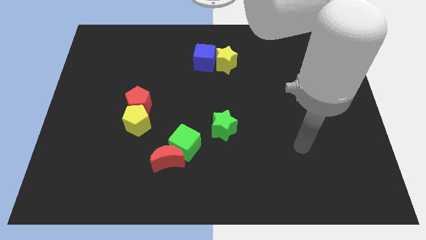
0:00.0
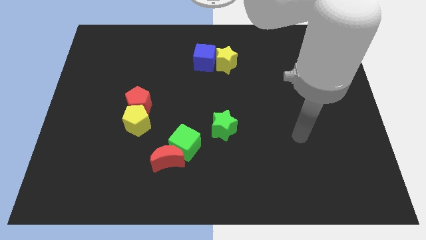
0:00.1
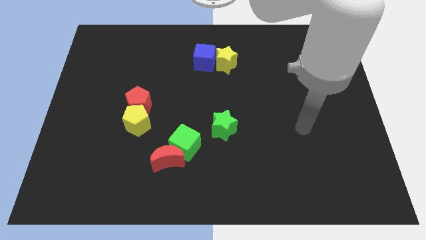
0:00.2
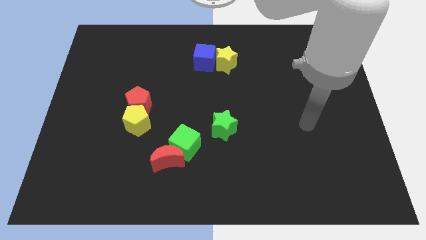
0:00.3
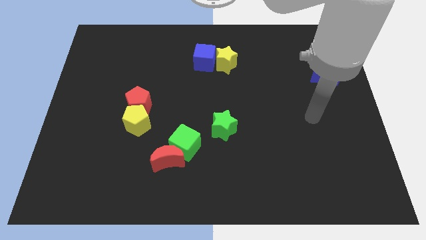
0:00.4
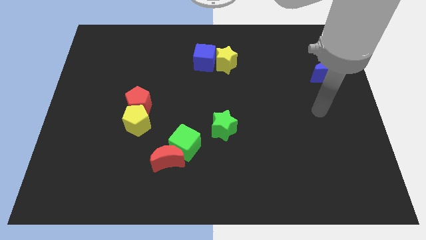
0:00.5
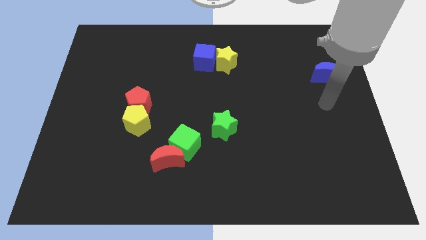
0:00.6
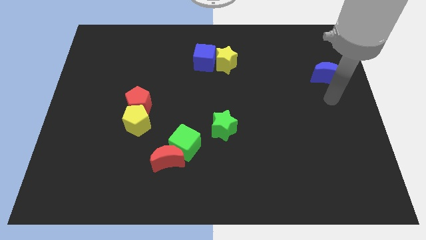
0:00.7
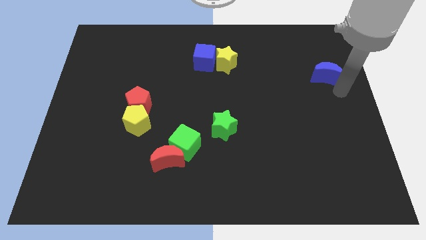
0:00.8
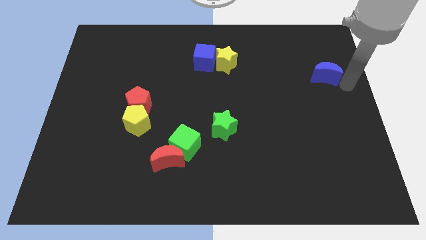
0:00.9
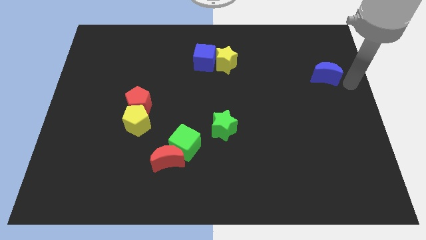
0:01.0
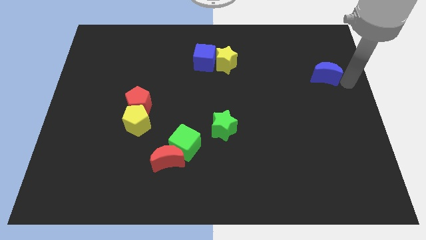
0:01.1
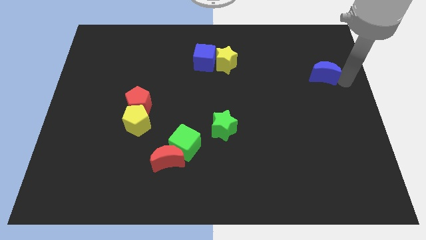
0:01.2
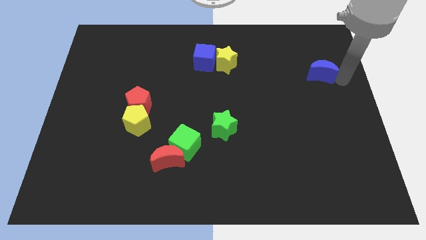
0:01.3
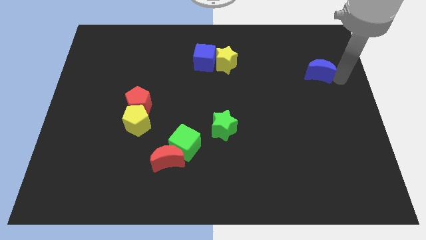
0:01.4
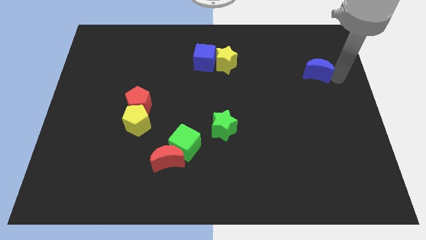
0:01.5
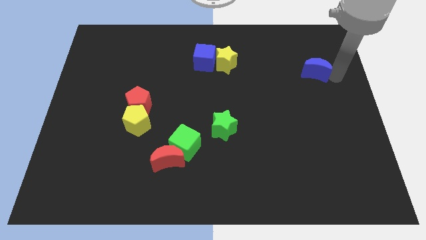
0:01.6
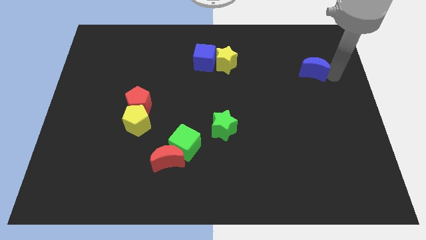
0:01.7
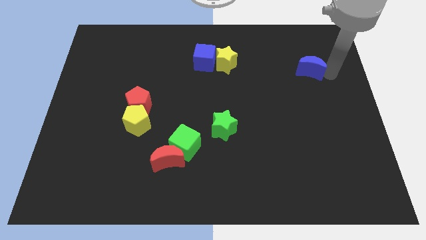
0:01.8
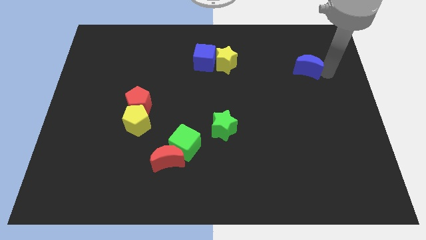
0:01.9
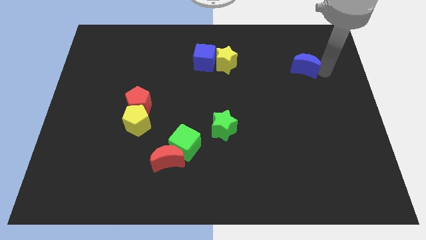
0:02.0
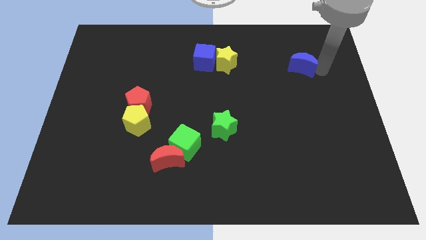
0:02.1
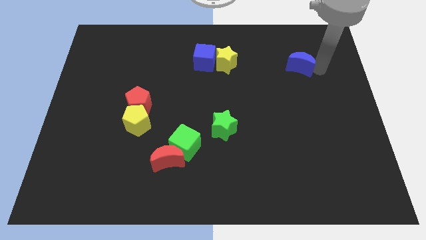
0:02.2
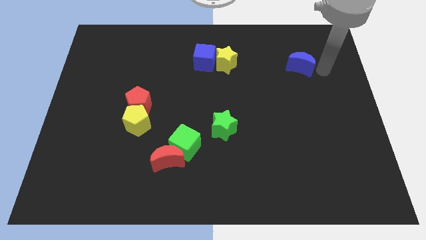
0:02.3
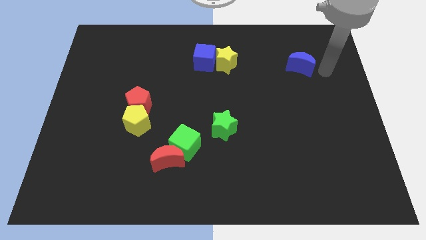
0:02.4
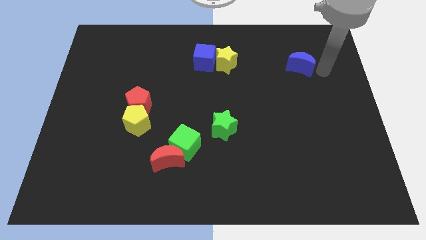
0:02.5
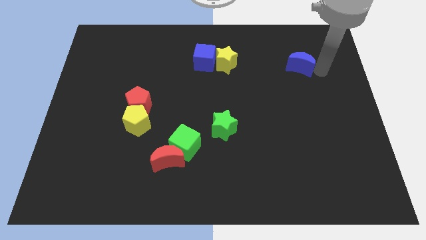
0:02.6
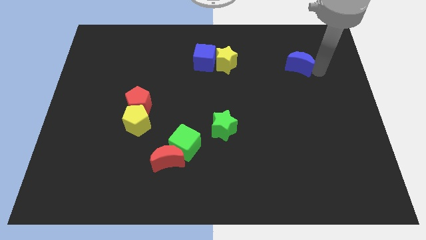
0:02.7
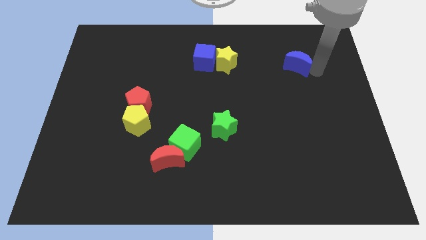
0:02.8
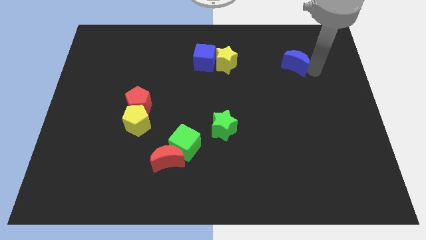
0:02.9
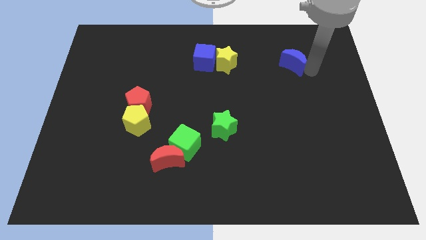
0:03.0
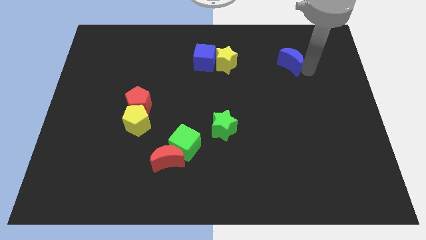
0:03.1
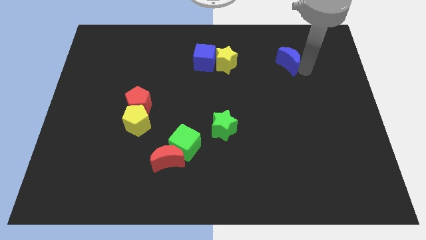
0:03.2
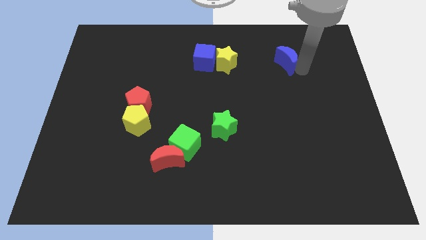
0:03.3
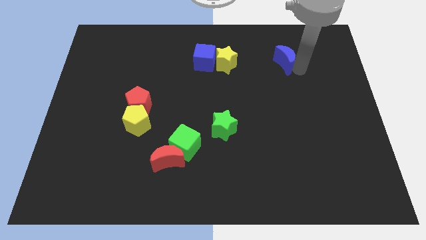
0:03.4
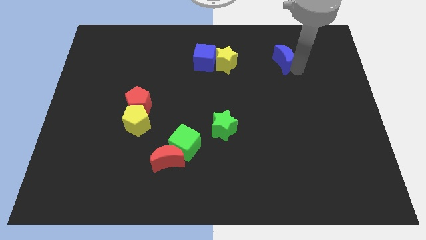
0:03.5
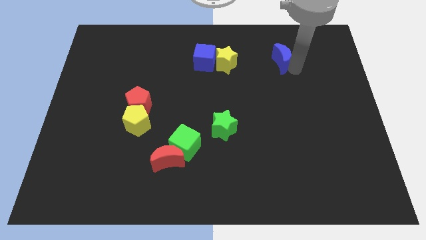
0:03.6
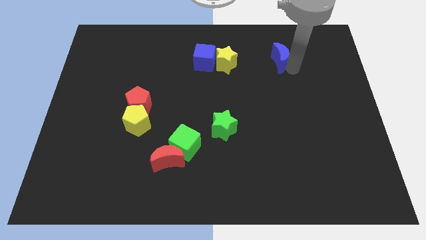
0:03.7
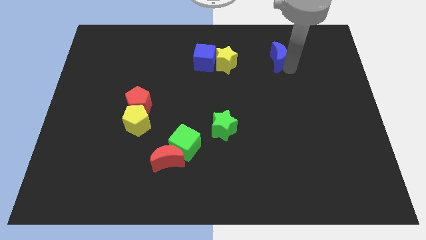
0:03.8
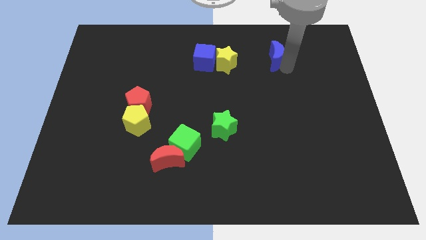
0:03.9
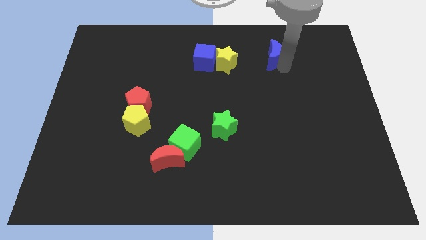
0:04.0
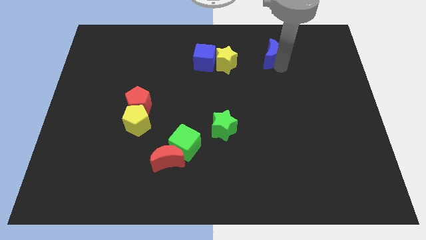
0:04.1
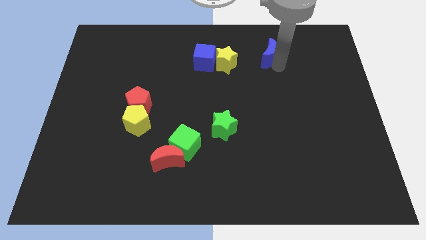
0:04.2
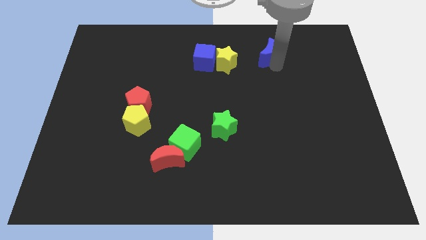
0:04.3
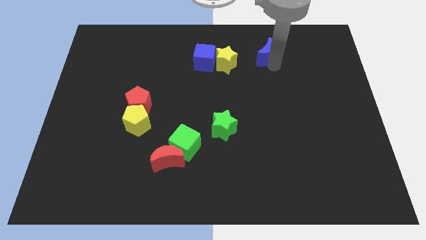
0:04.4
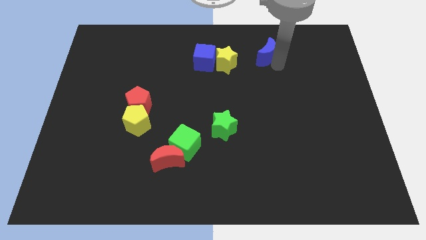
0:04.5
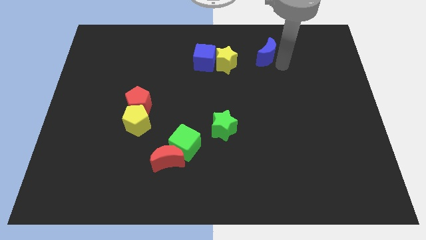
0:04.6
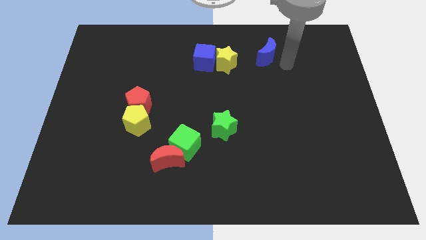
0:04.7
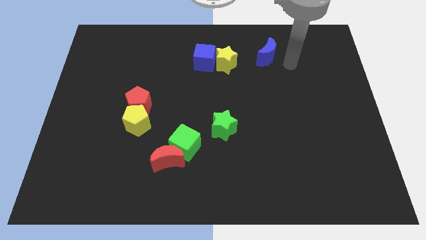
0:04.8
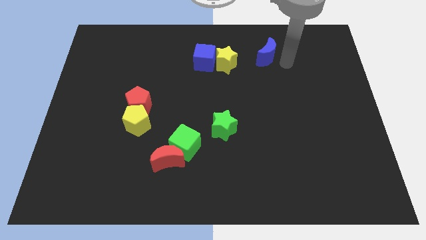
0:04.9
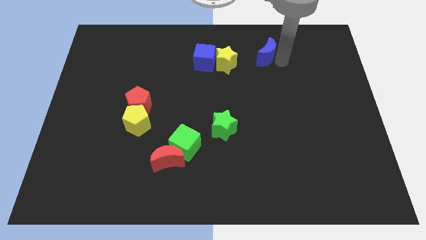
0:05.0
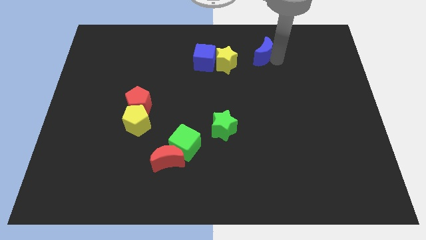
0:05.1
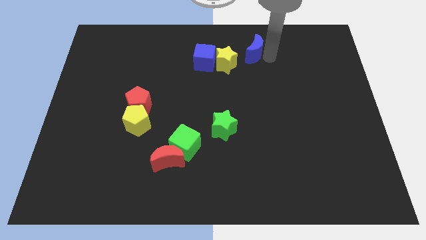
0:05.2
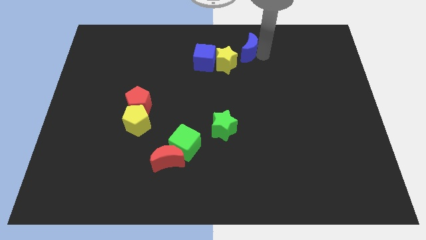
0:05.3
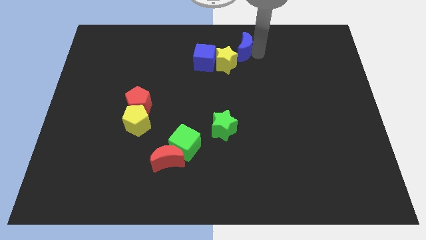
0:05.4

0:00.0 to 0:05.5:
move the blue moon to the top

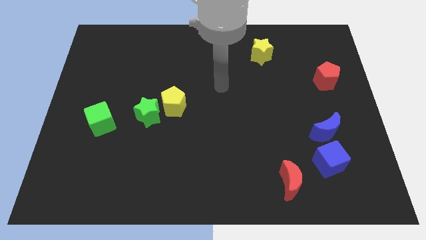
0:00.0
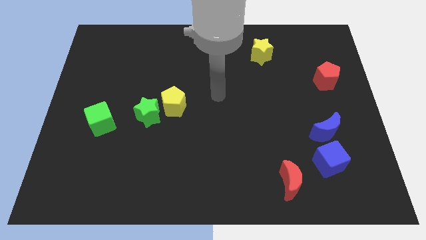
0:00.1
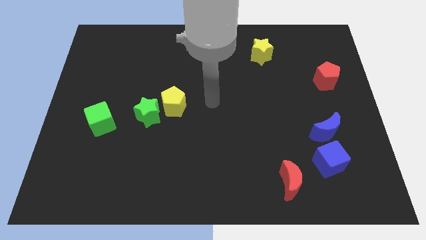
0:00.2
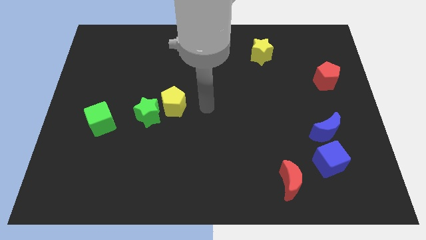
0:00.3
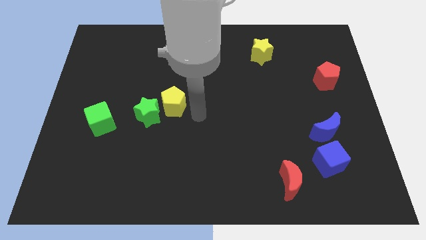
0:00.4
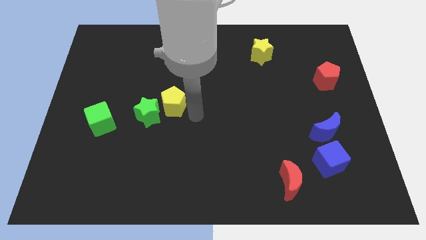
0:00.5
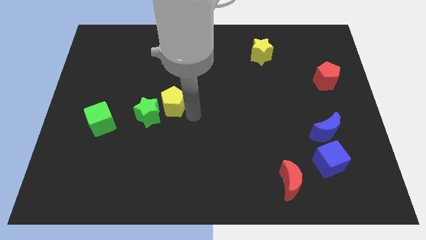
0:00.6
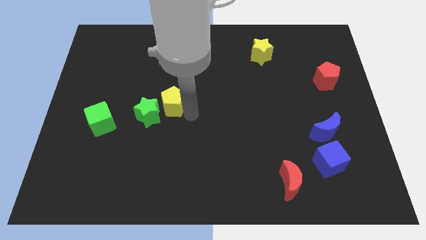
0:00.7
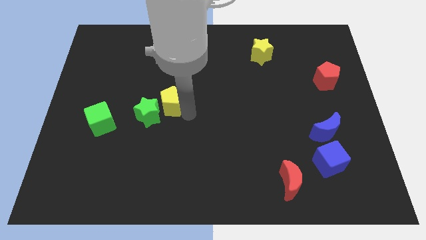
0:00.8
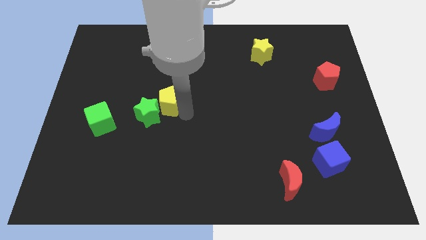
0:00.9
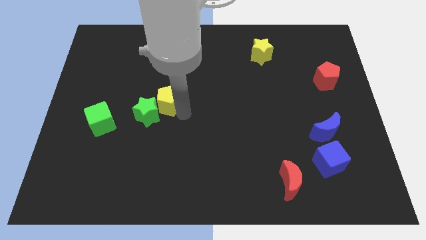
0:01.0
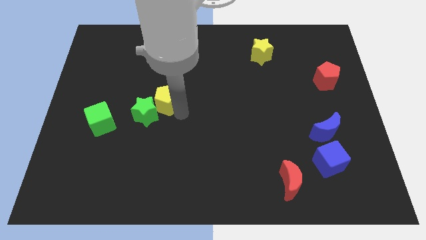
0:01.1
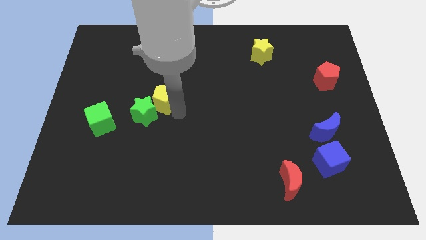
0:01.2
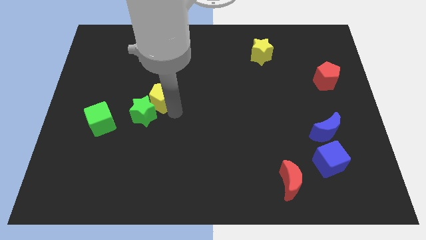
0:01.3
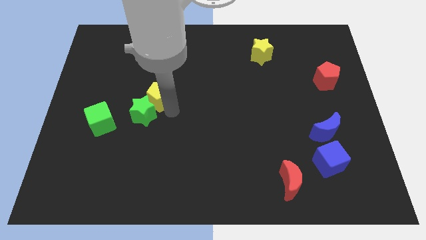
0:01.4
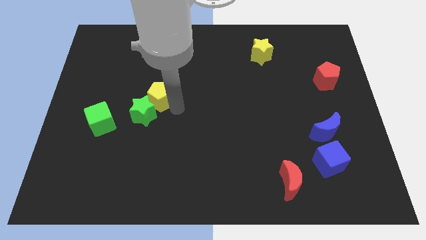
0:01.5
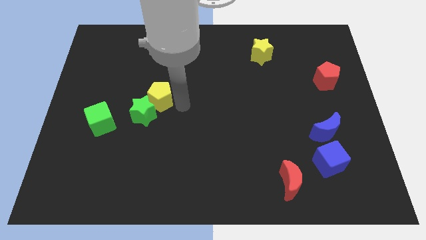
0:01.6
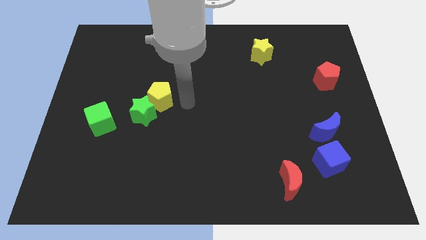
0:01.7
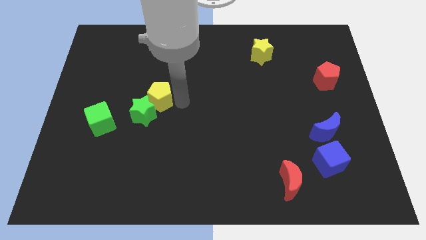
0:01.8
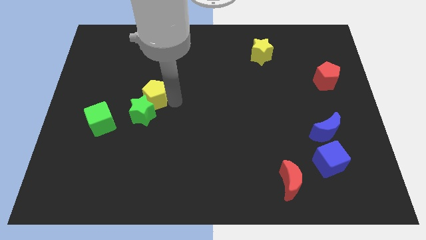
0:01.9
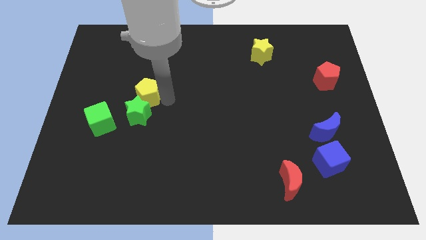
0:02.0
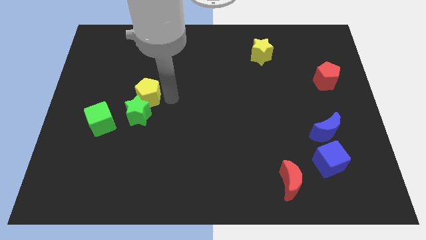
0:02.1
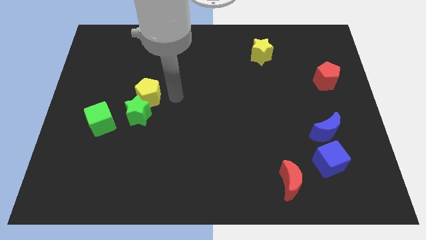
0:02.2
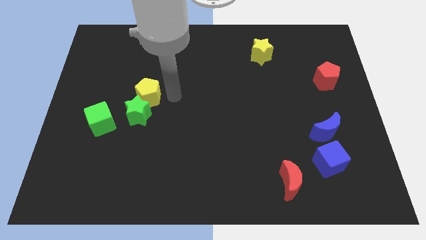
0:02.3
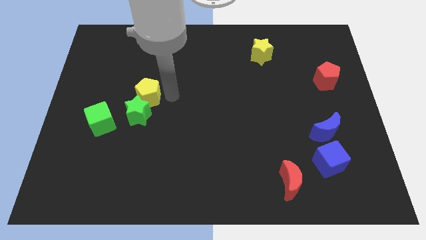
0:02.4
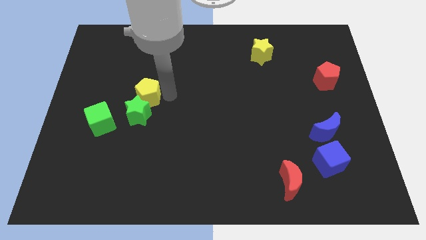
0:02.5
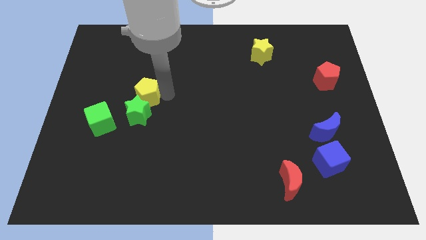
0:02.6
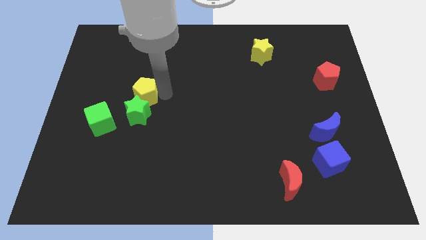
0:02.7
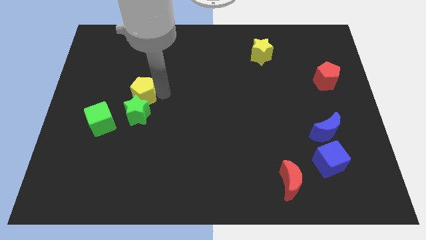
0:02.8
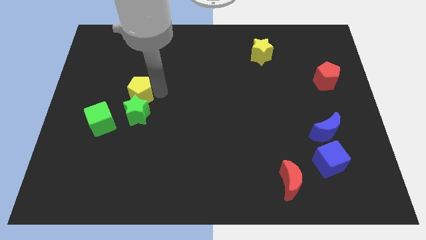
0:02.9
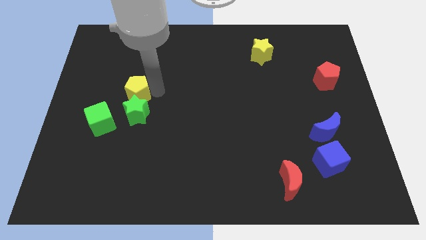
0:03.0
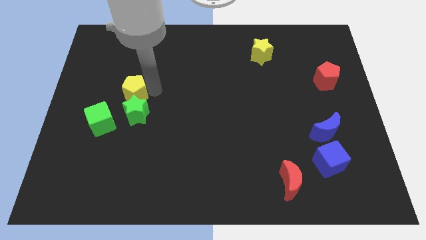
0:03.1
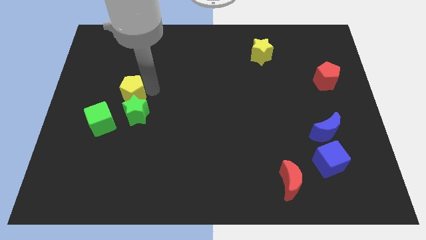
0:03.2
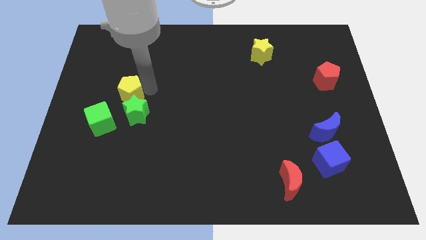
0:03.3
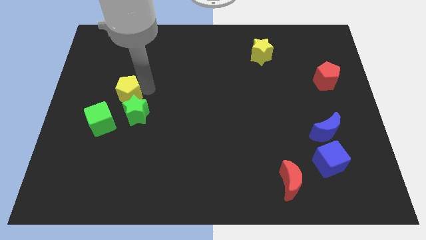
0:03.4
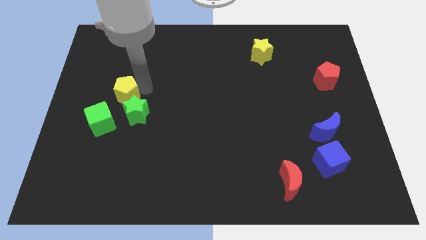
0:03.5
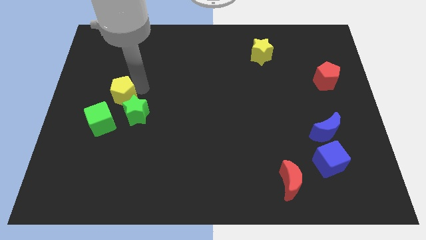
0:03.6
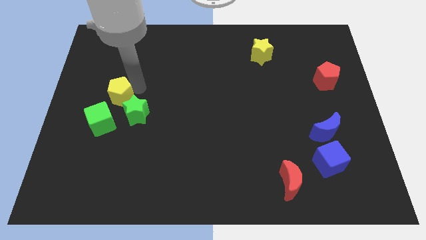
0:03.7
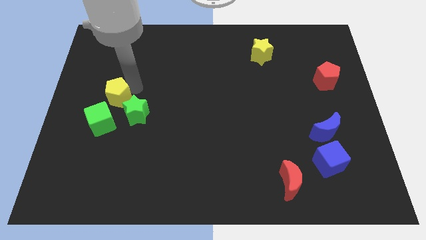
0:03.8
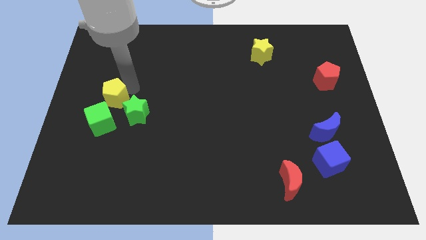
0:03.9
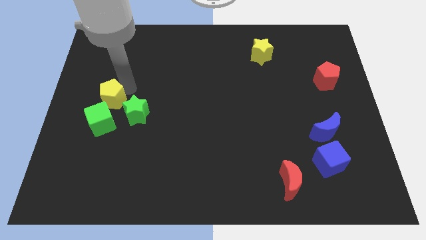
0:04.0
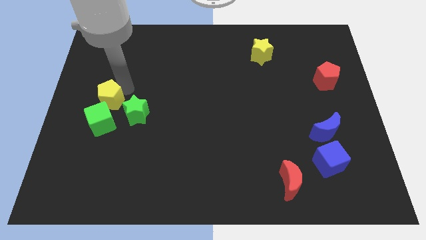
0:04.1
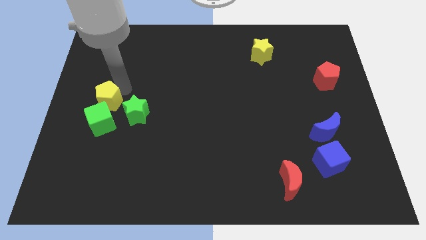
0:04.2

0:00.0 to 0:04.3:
move the yellow pentagon to the left side of the board
